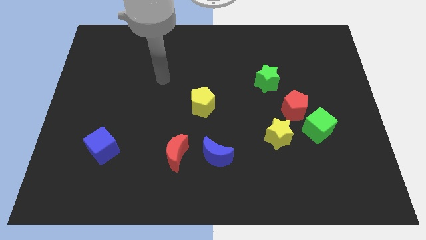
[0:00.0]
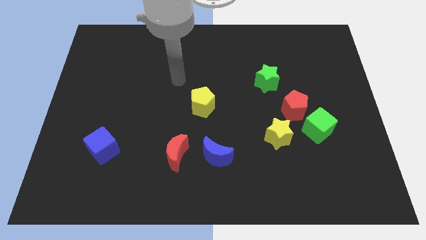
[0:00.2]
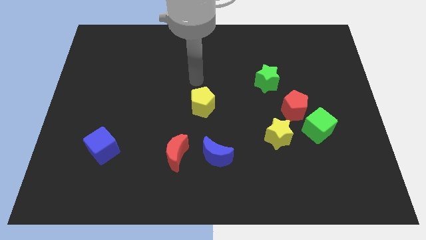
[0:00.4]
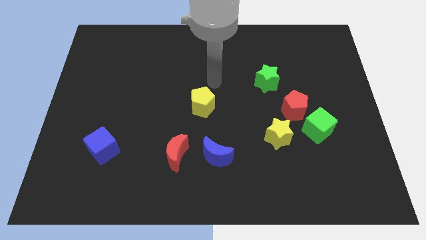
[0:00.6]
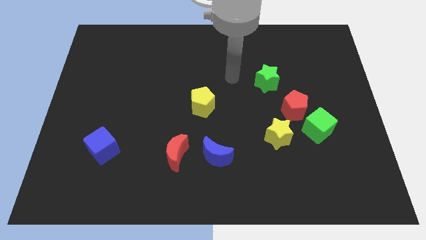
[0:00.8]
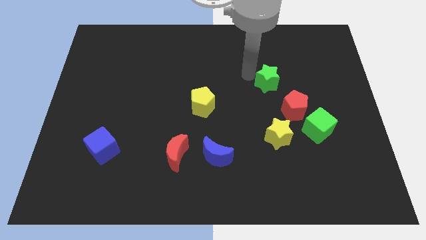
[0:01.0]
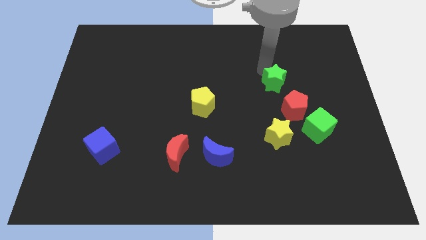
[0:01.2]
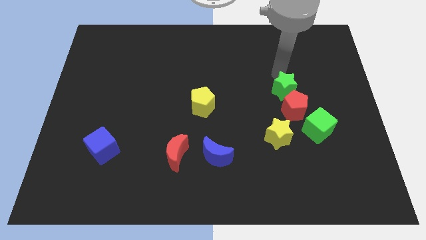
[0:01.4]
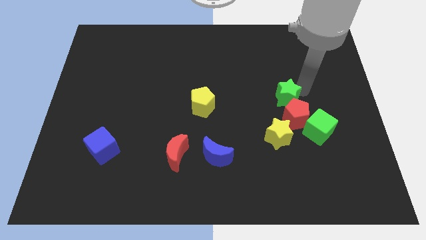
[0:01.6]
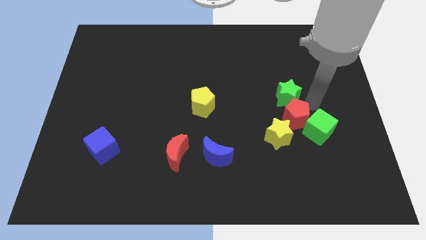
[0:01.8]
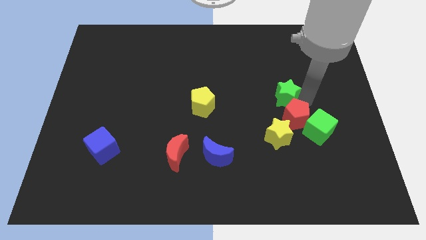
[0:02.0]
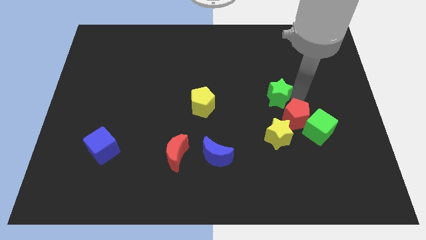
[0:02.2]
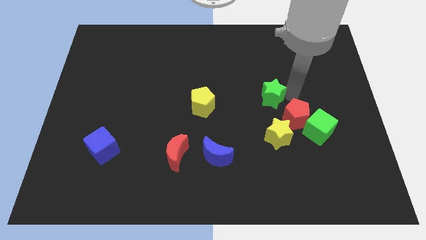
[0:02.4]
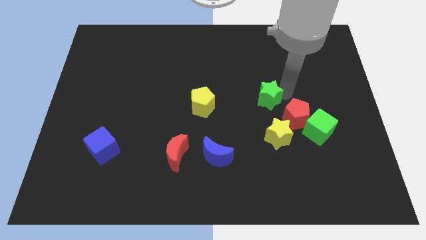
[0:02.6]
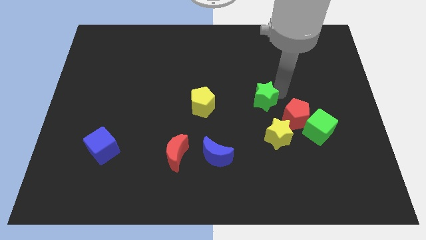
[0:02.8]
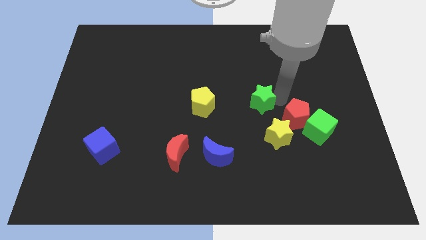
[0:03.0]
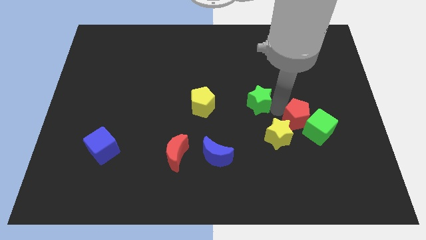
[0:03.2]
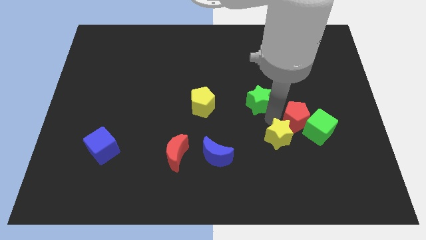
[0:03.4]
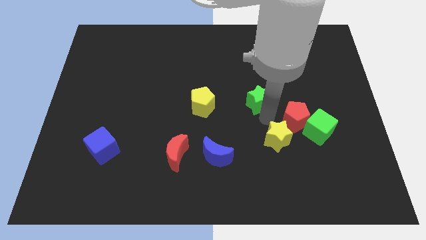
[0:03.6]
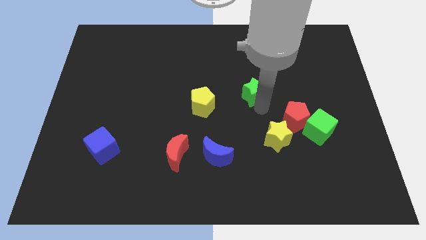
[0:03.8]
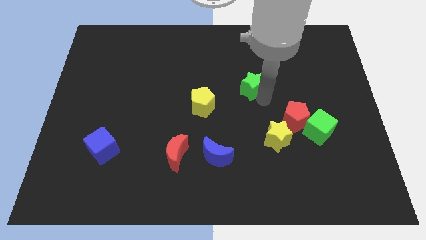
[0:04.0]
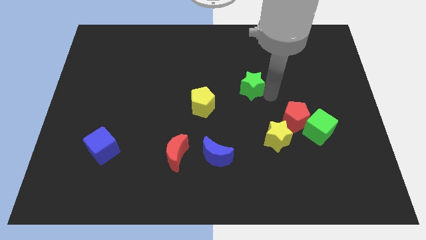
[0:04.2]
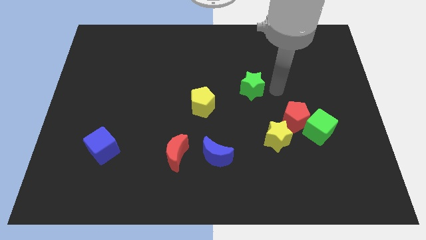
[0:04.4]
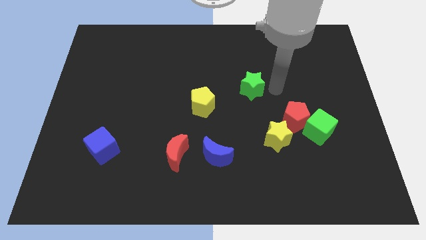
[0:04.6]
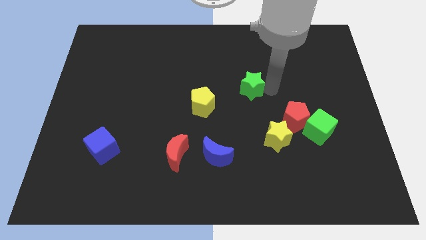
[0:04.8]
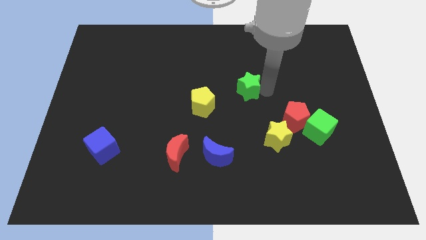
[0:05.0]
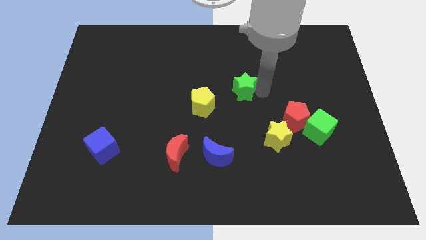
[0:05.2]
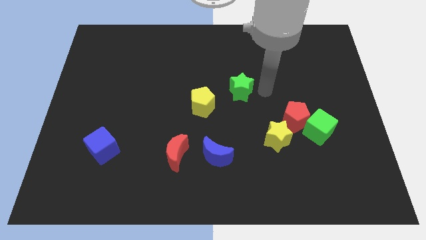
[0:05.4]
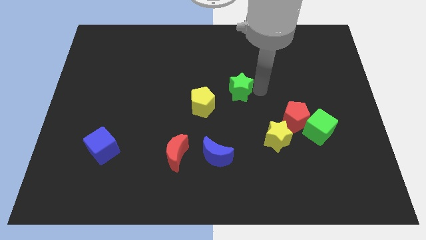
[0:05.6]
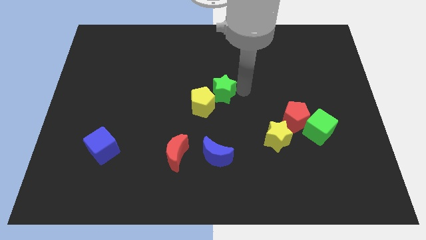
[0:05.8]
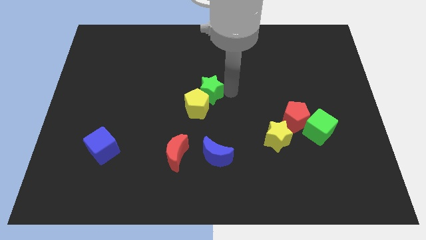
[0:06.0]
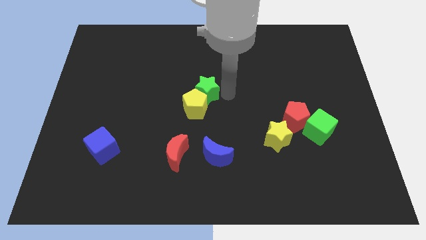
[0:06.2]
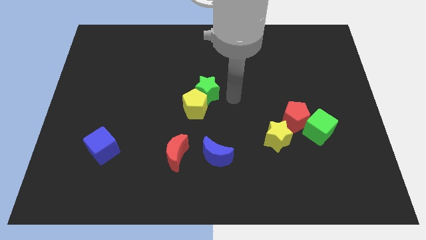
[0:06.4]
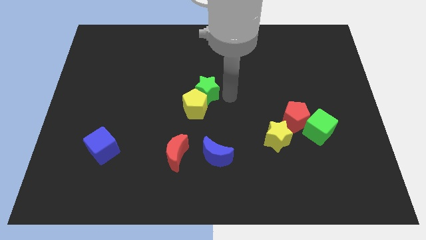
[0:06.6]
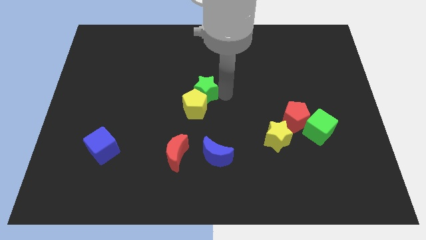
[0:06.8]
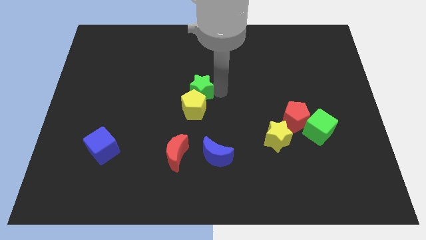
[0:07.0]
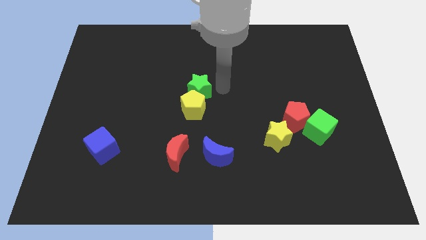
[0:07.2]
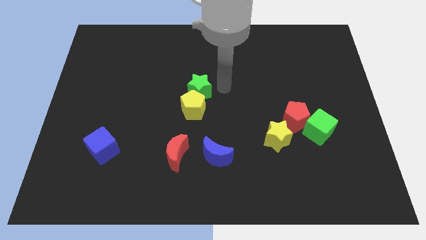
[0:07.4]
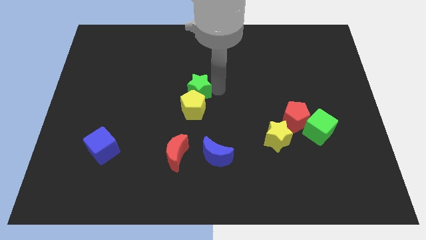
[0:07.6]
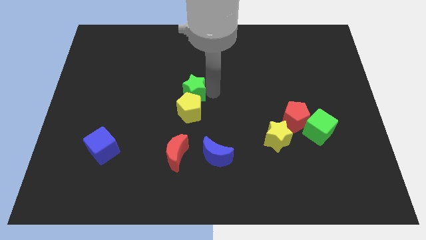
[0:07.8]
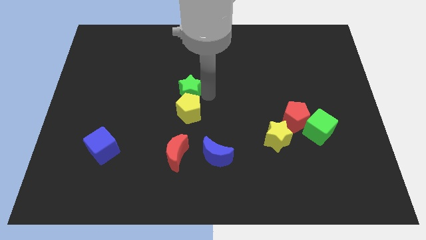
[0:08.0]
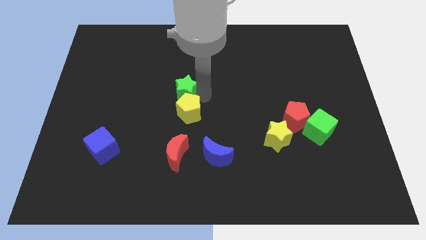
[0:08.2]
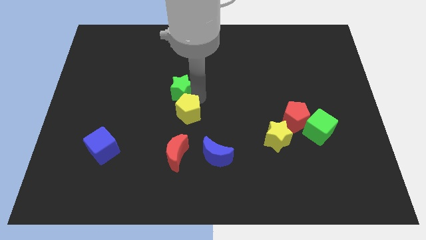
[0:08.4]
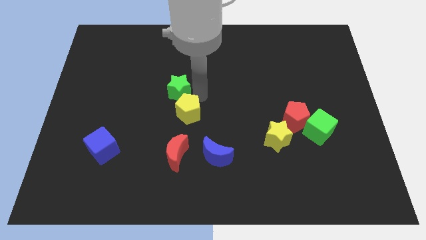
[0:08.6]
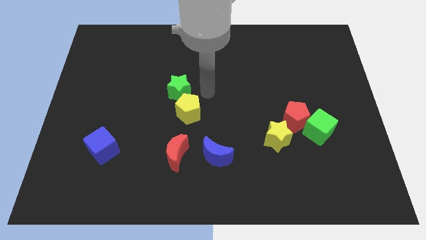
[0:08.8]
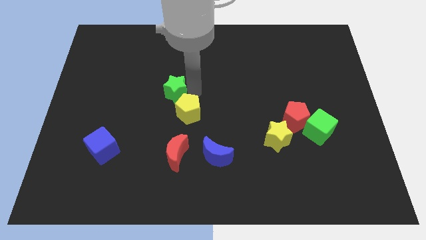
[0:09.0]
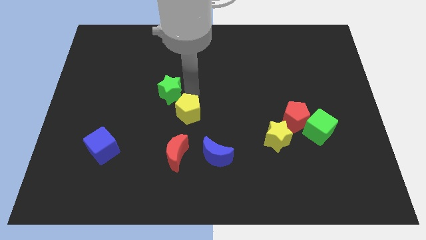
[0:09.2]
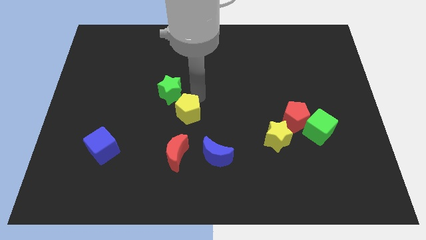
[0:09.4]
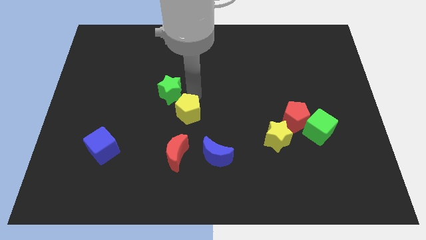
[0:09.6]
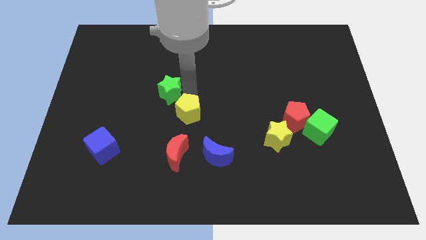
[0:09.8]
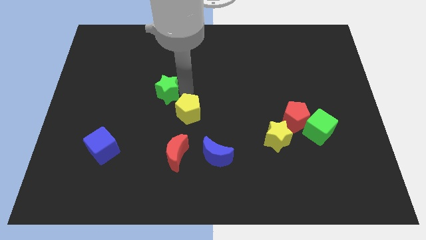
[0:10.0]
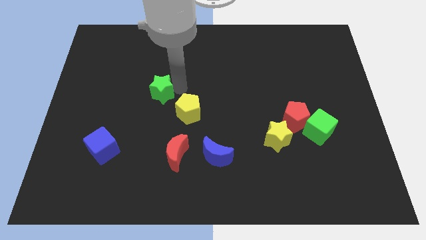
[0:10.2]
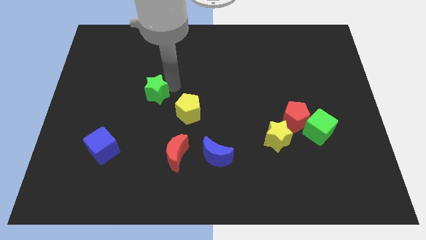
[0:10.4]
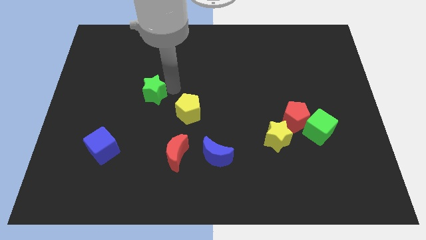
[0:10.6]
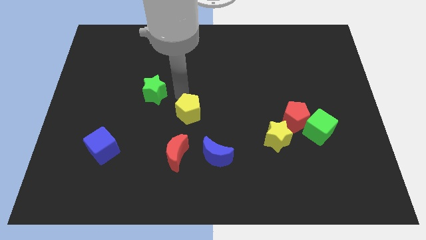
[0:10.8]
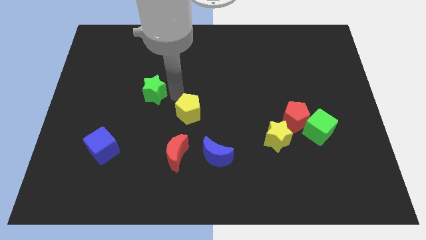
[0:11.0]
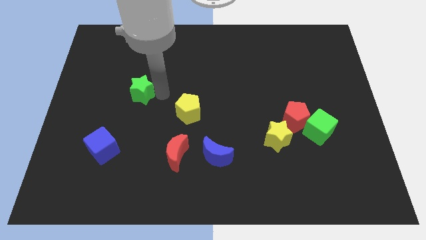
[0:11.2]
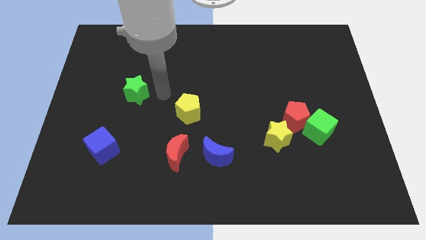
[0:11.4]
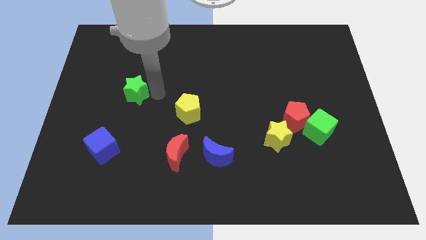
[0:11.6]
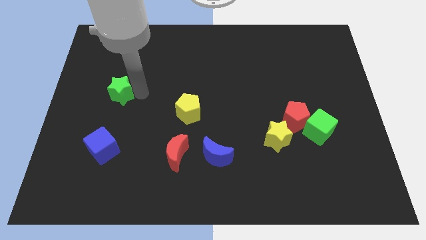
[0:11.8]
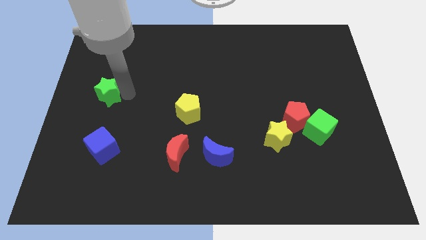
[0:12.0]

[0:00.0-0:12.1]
slide the green star to the center left

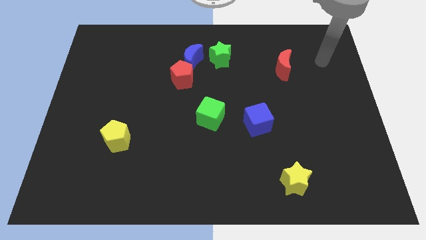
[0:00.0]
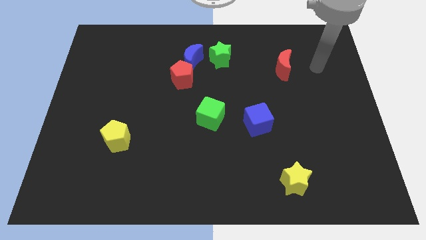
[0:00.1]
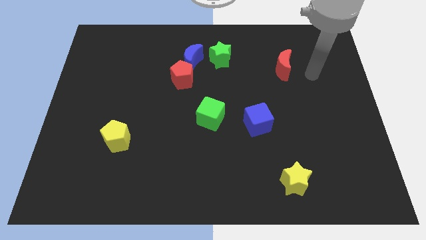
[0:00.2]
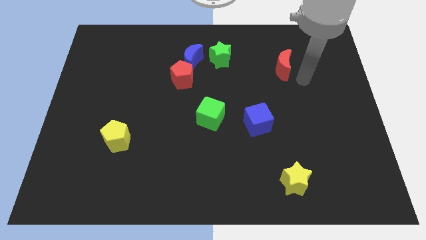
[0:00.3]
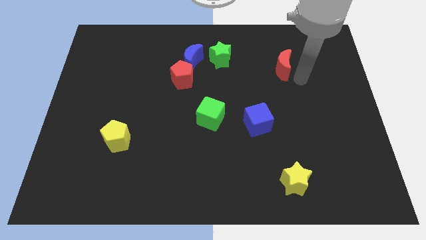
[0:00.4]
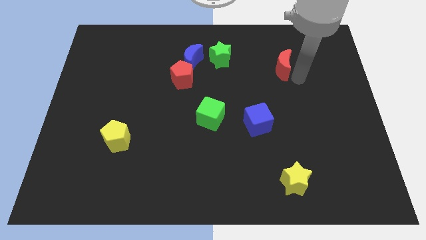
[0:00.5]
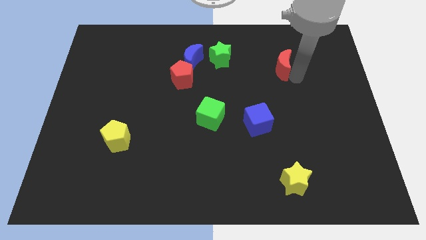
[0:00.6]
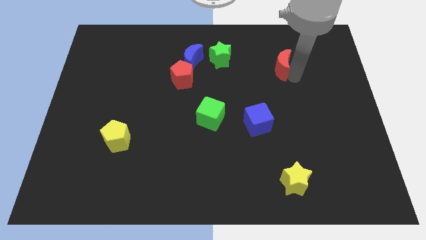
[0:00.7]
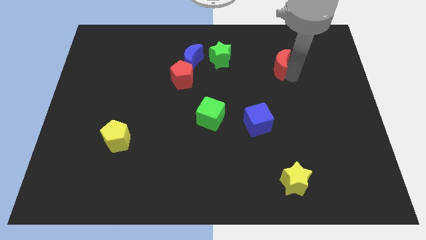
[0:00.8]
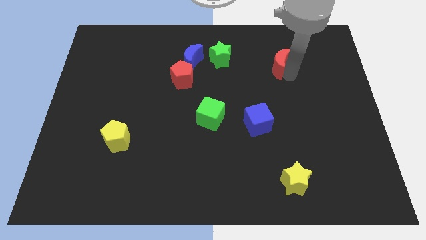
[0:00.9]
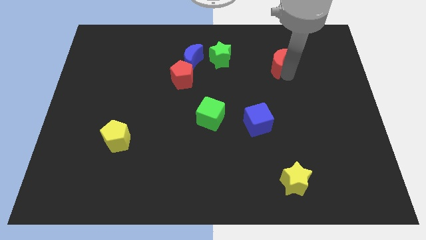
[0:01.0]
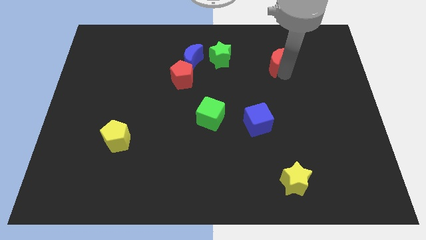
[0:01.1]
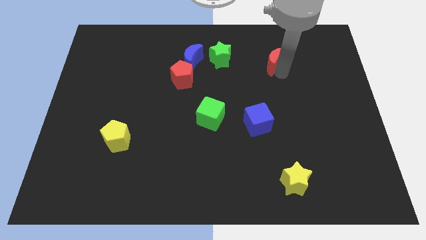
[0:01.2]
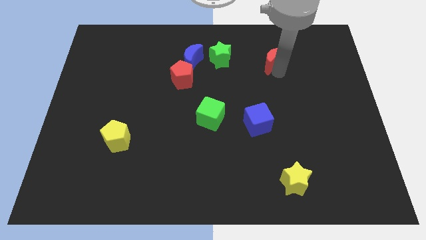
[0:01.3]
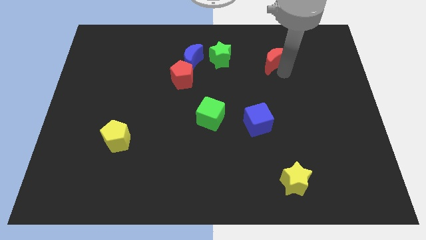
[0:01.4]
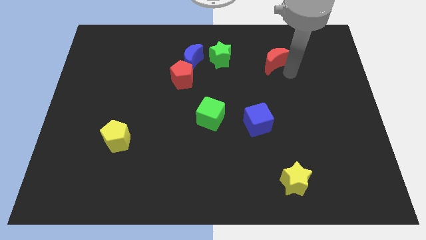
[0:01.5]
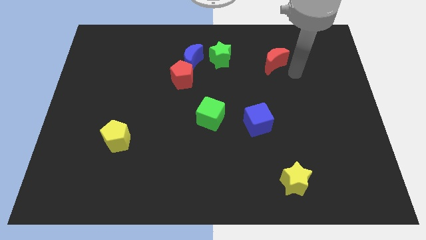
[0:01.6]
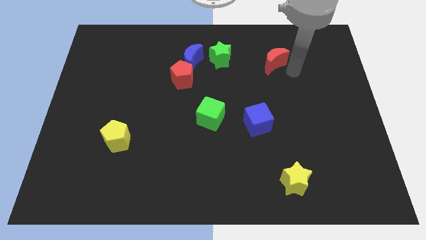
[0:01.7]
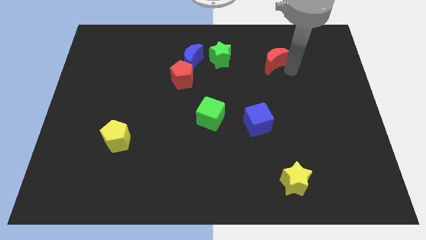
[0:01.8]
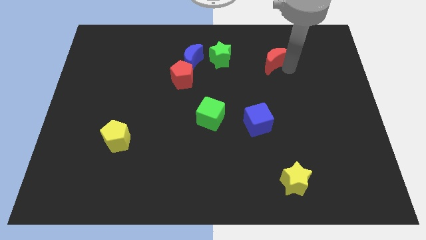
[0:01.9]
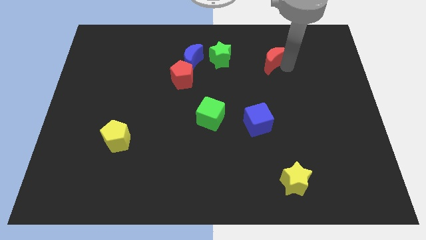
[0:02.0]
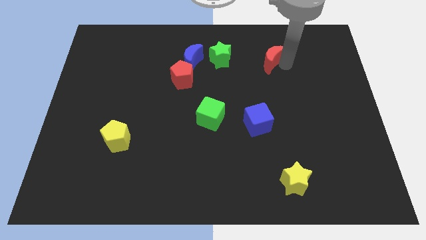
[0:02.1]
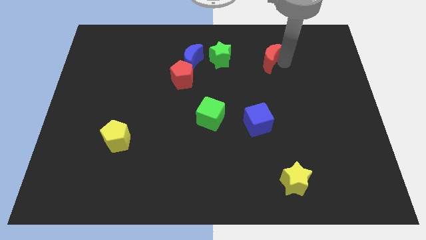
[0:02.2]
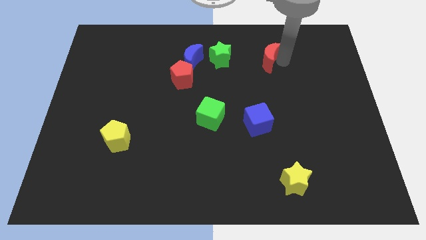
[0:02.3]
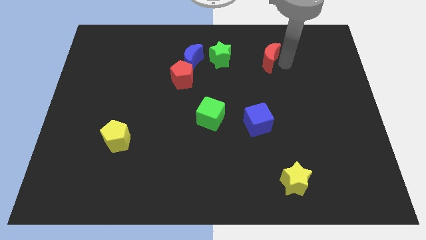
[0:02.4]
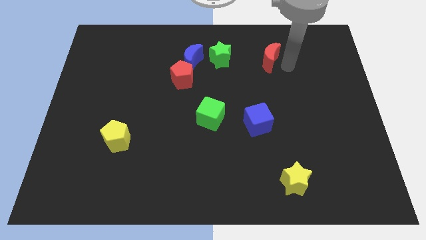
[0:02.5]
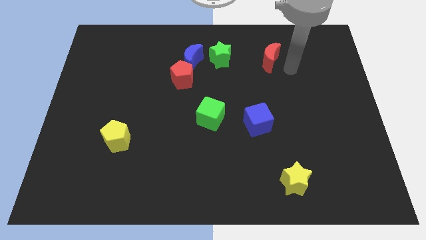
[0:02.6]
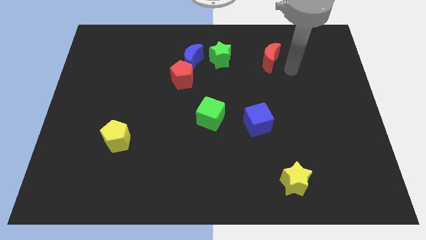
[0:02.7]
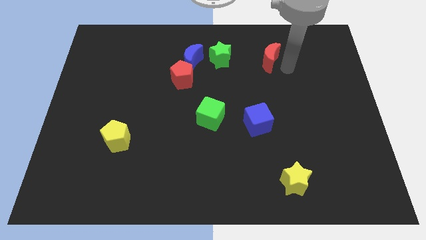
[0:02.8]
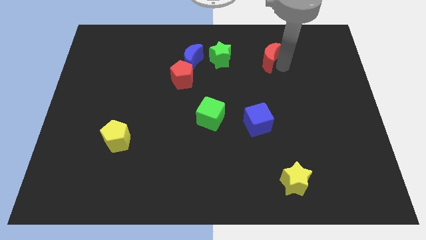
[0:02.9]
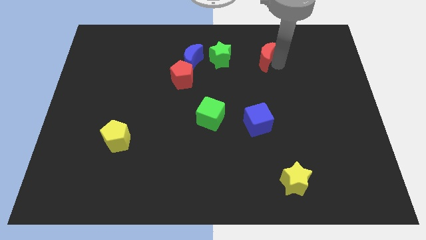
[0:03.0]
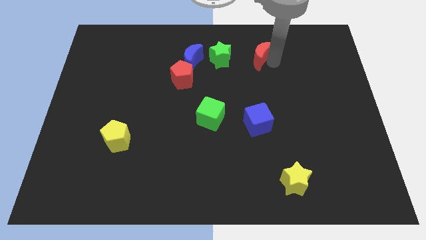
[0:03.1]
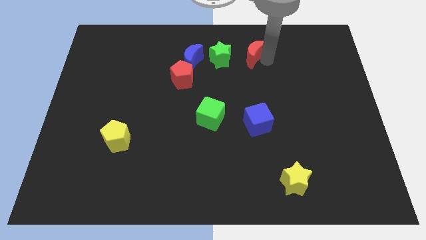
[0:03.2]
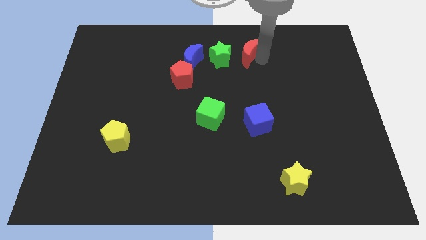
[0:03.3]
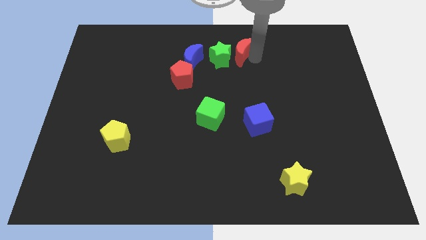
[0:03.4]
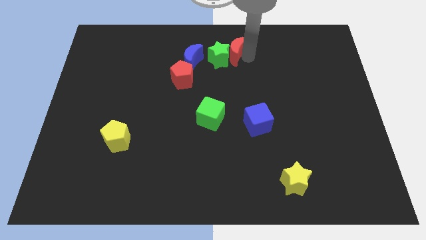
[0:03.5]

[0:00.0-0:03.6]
move the red moon to the top
